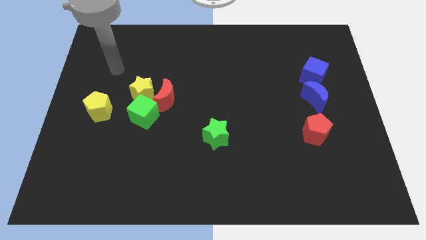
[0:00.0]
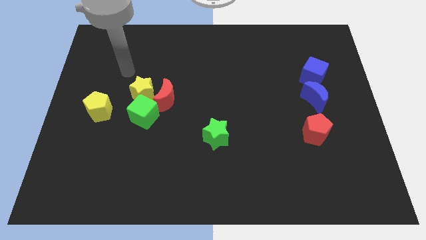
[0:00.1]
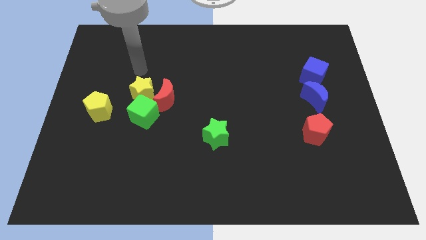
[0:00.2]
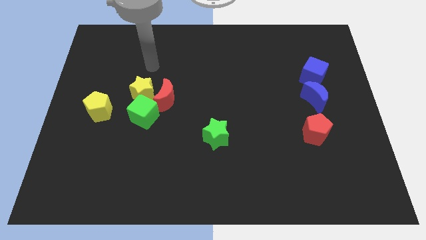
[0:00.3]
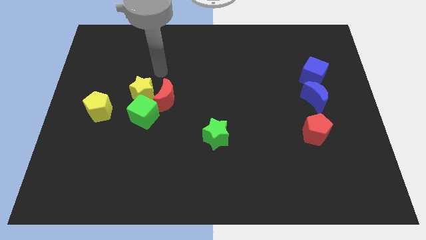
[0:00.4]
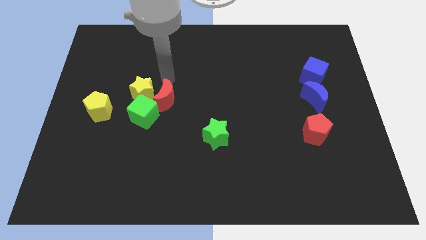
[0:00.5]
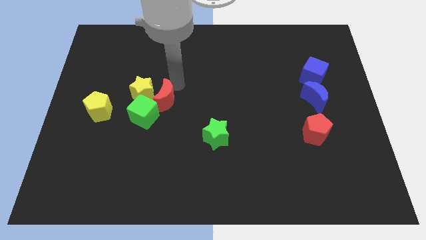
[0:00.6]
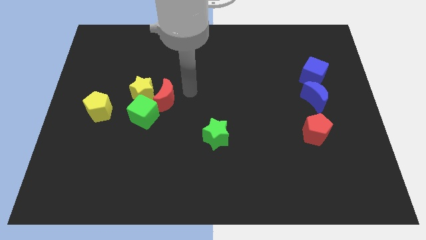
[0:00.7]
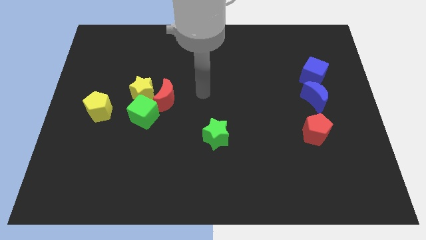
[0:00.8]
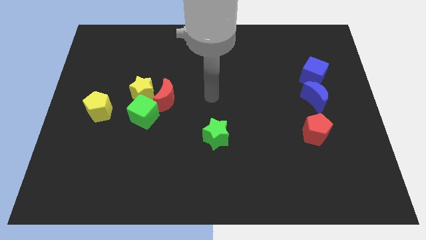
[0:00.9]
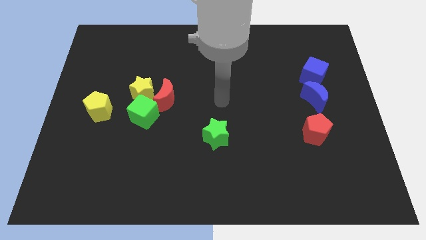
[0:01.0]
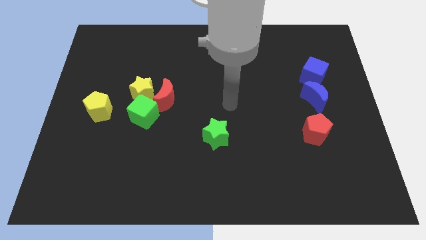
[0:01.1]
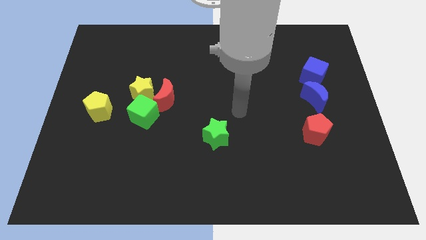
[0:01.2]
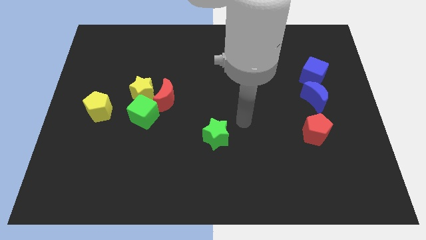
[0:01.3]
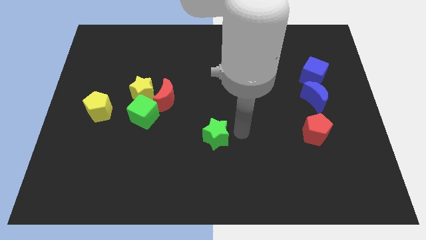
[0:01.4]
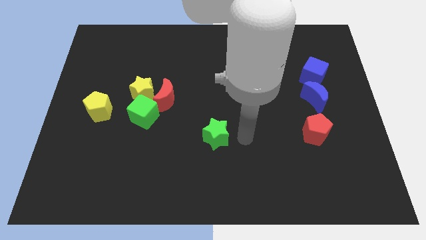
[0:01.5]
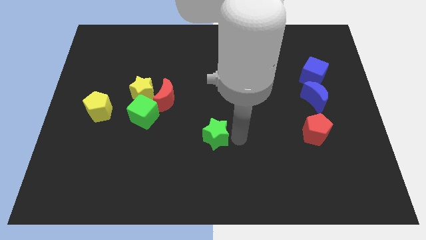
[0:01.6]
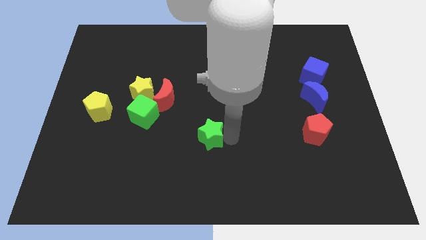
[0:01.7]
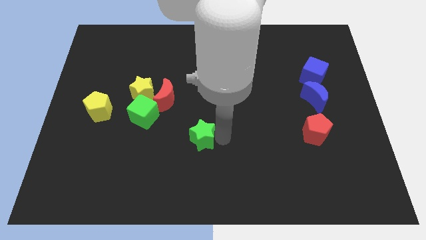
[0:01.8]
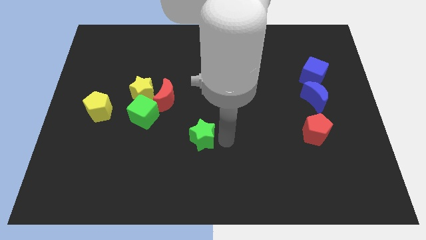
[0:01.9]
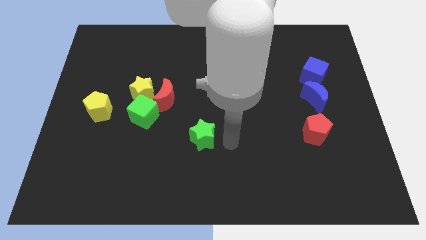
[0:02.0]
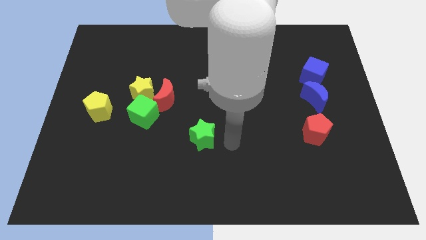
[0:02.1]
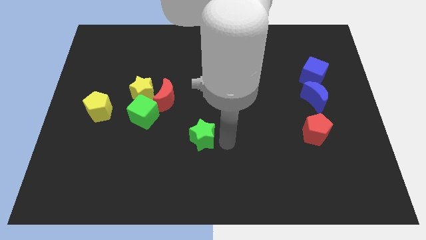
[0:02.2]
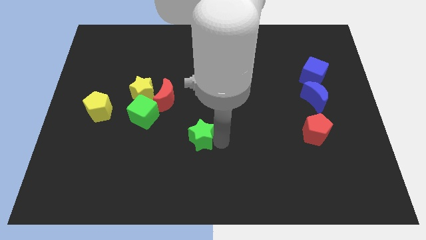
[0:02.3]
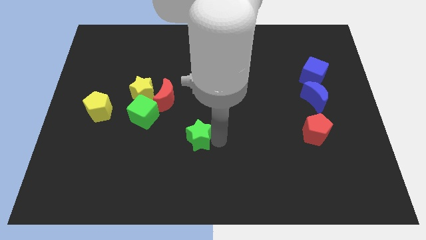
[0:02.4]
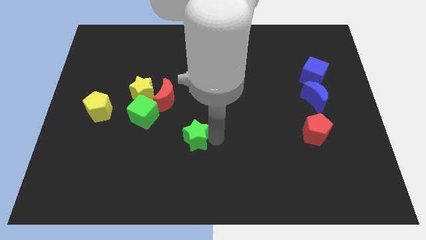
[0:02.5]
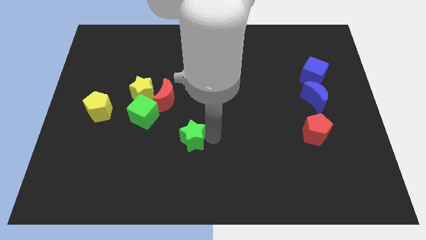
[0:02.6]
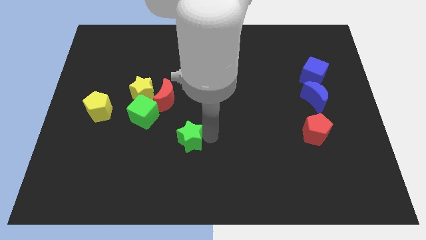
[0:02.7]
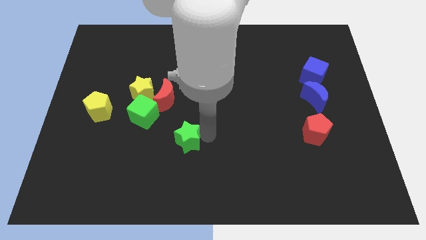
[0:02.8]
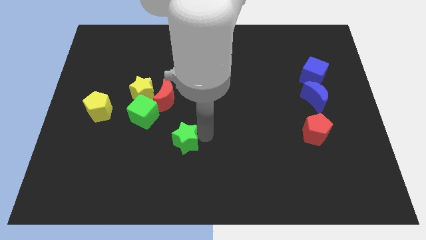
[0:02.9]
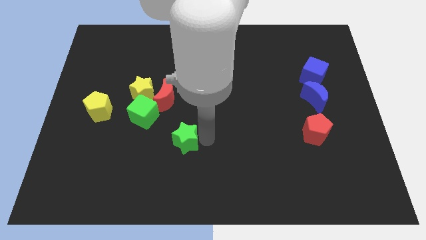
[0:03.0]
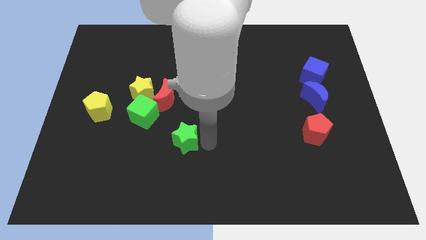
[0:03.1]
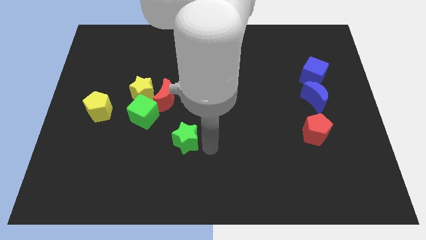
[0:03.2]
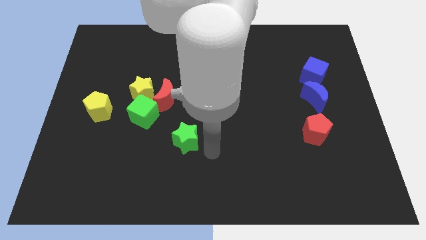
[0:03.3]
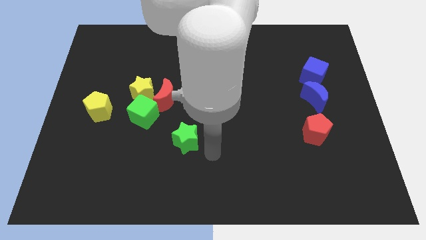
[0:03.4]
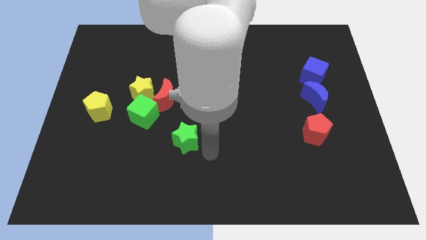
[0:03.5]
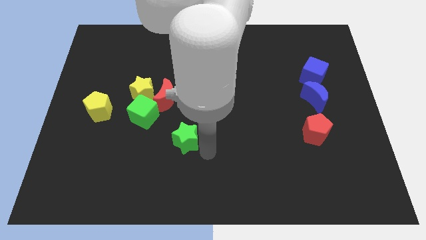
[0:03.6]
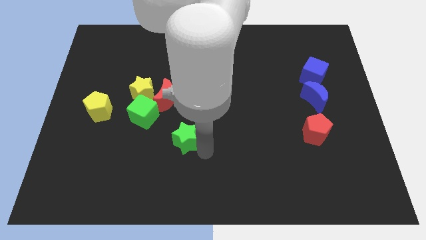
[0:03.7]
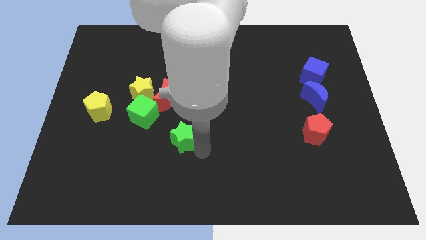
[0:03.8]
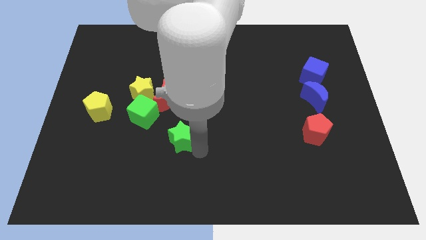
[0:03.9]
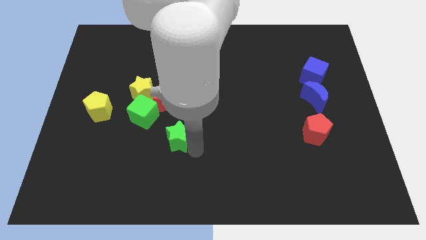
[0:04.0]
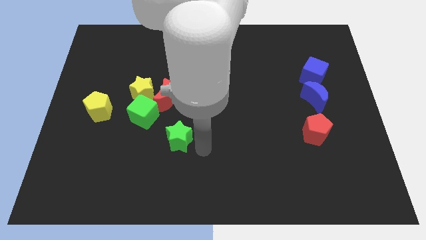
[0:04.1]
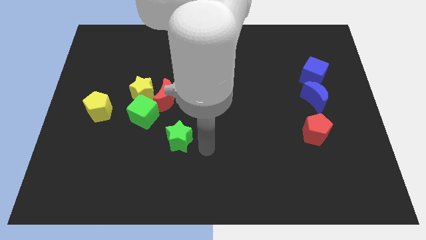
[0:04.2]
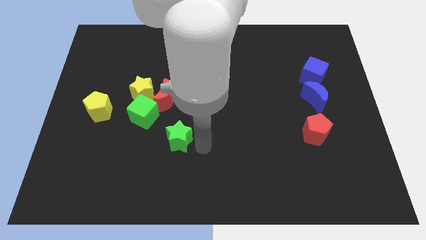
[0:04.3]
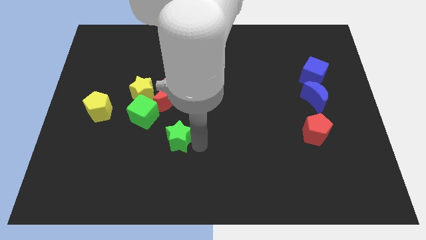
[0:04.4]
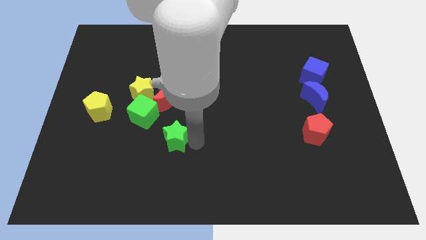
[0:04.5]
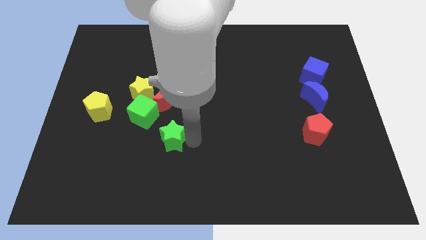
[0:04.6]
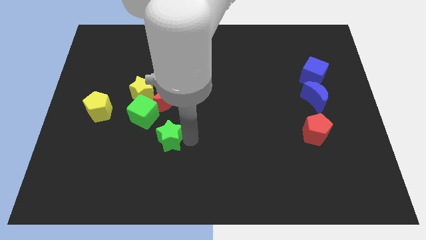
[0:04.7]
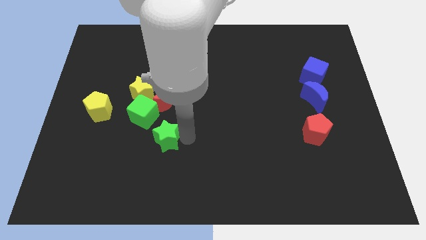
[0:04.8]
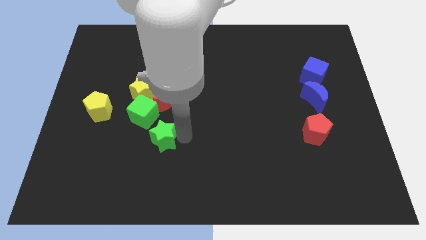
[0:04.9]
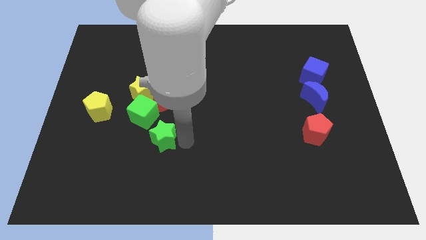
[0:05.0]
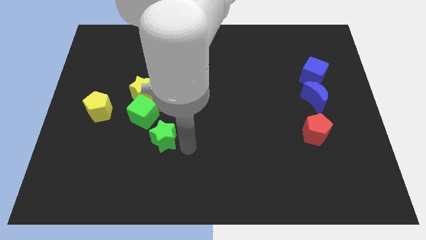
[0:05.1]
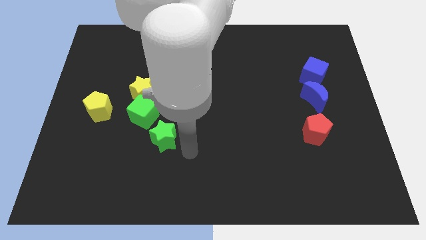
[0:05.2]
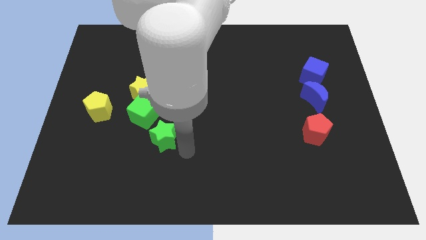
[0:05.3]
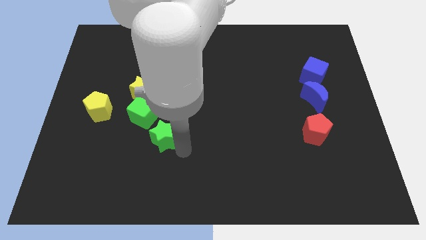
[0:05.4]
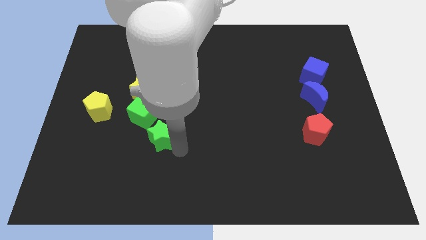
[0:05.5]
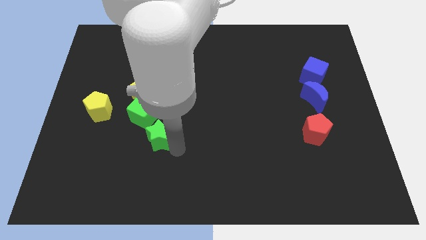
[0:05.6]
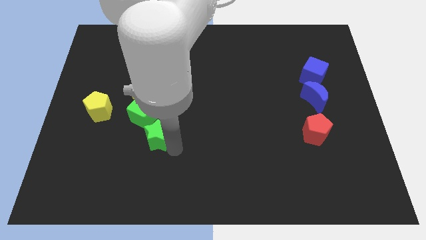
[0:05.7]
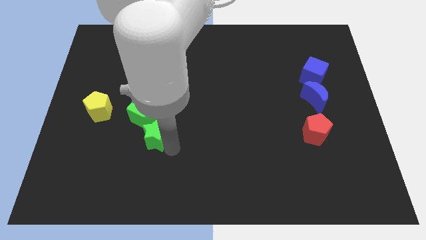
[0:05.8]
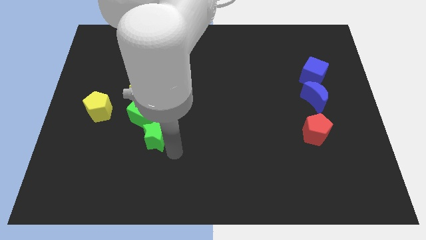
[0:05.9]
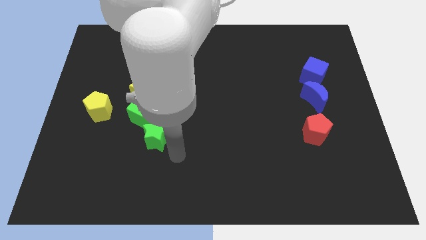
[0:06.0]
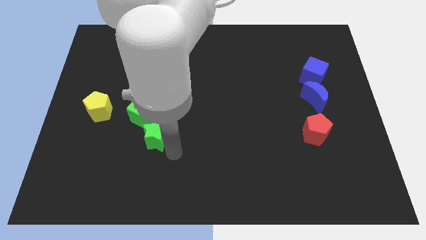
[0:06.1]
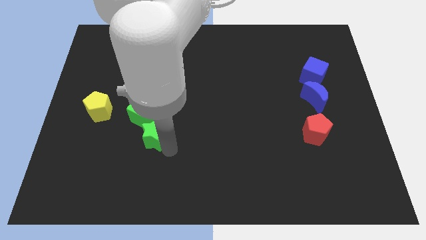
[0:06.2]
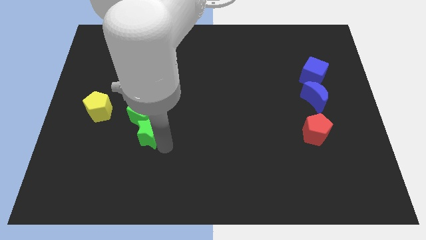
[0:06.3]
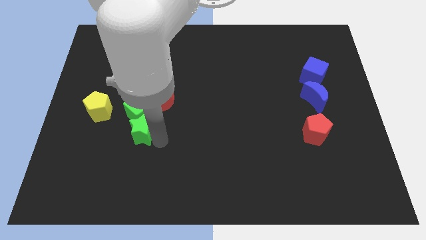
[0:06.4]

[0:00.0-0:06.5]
slide the green star to the bottom left side of the green cube
